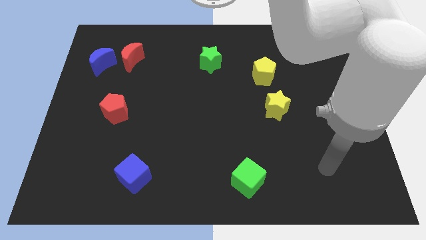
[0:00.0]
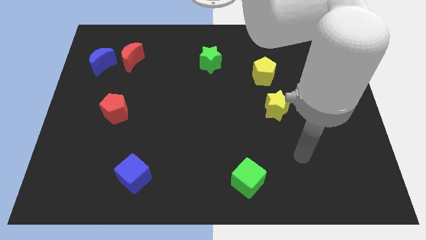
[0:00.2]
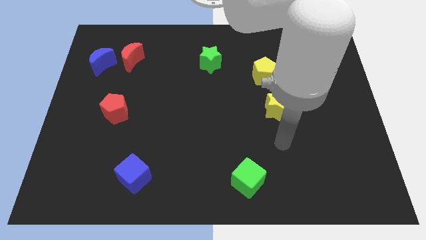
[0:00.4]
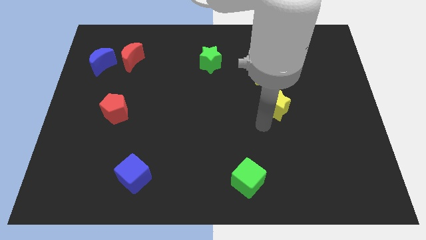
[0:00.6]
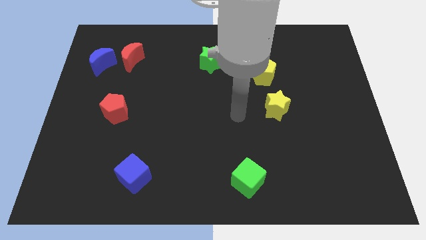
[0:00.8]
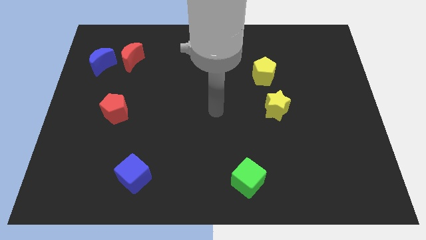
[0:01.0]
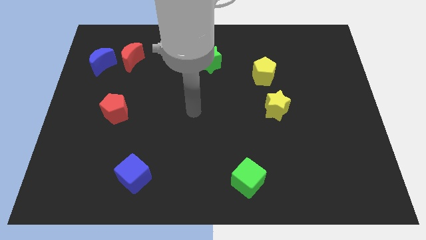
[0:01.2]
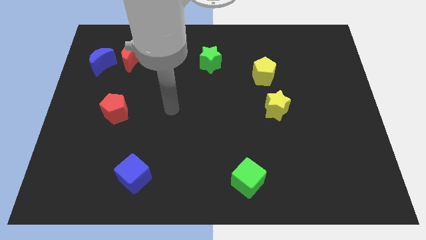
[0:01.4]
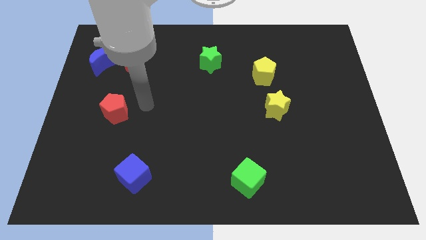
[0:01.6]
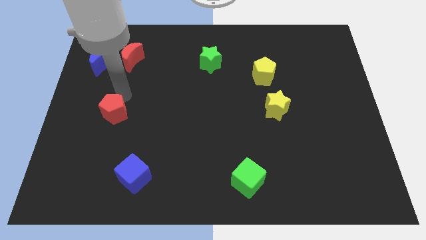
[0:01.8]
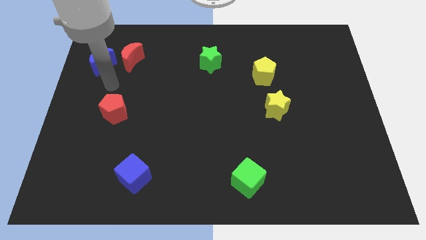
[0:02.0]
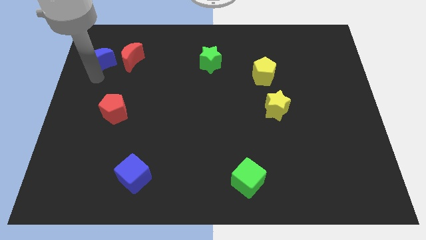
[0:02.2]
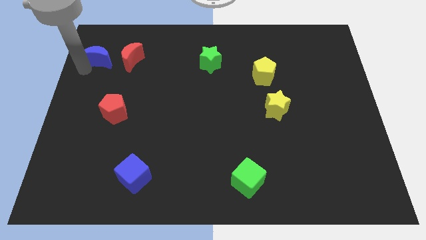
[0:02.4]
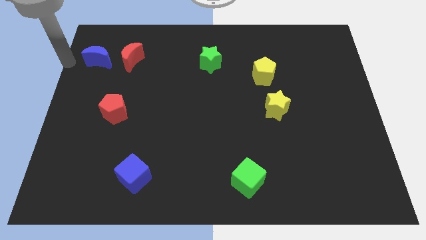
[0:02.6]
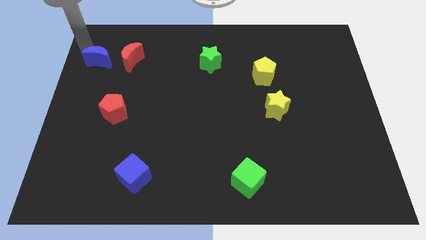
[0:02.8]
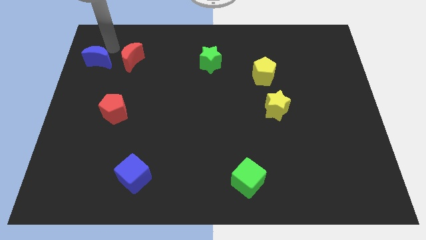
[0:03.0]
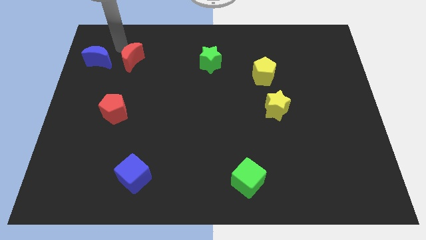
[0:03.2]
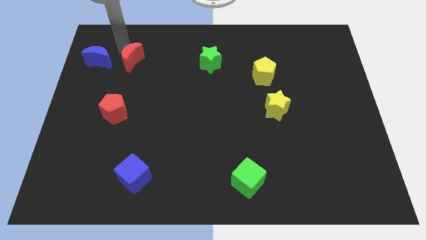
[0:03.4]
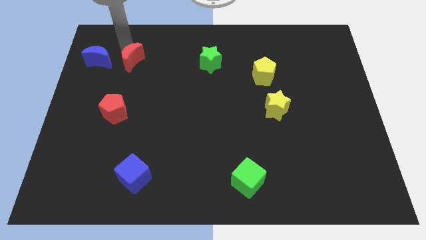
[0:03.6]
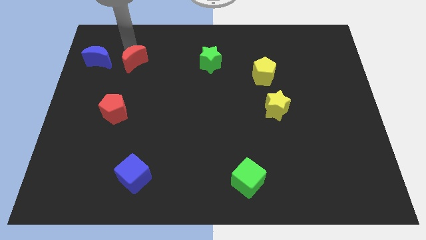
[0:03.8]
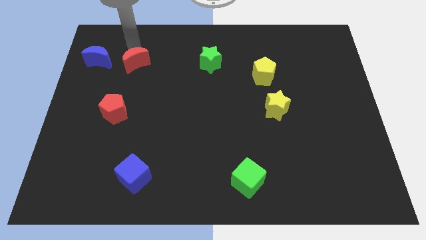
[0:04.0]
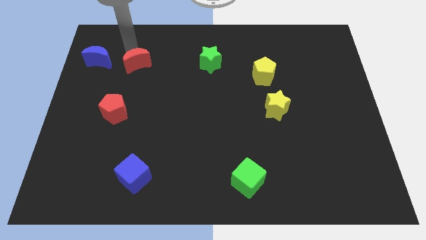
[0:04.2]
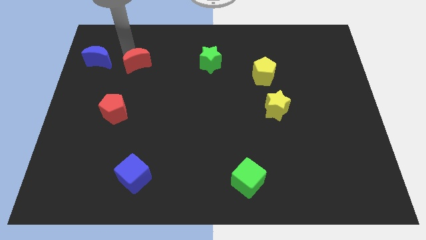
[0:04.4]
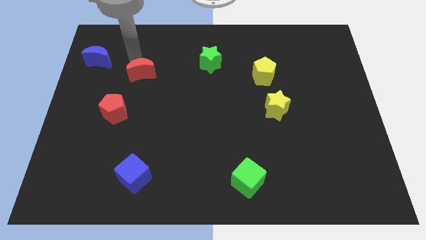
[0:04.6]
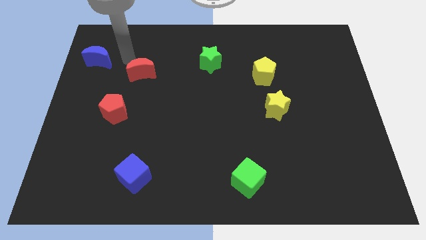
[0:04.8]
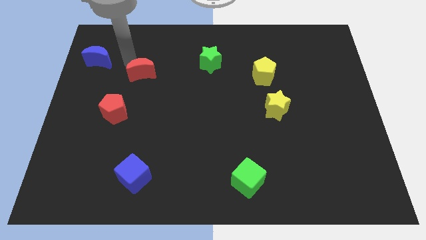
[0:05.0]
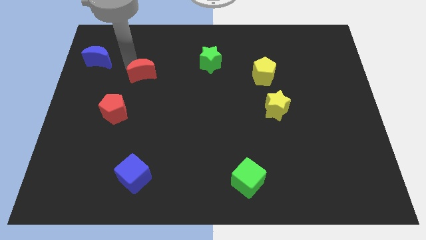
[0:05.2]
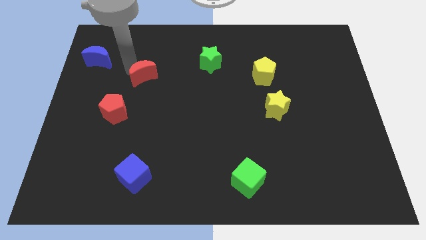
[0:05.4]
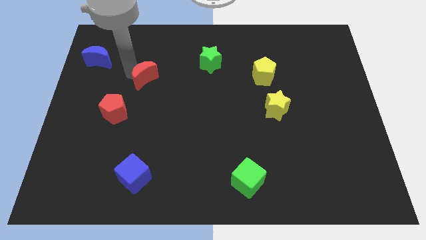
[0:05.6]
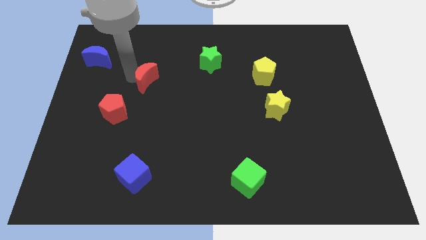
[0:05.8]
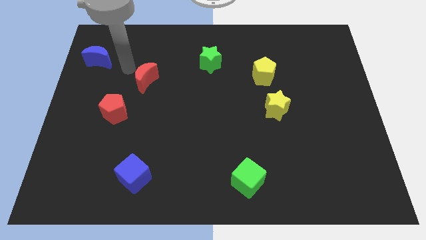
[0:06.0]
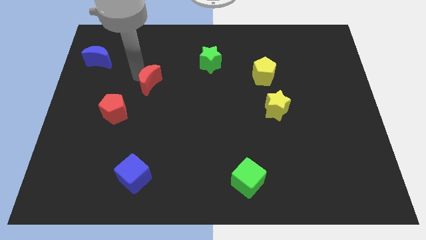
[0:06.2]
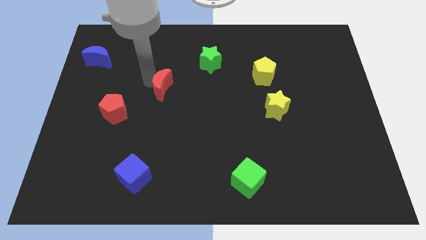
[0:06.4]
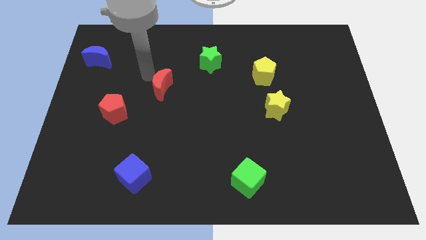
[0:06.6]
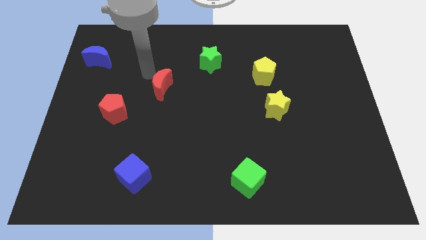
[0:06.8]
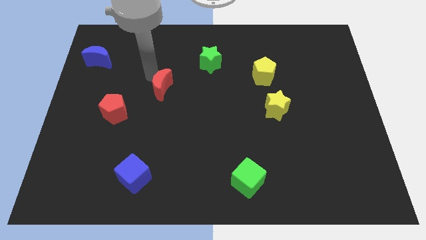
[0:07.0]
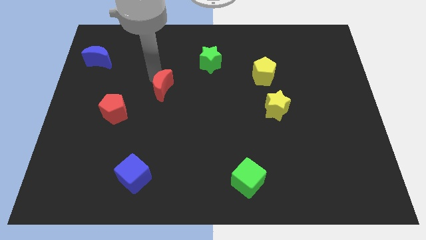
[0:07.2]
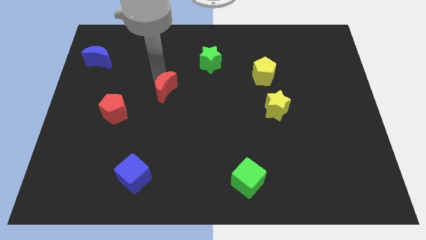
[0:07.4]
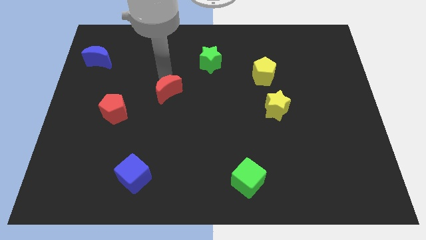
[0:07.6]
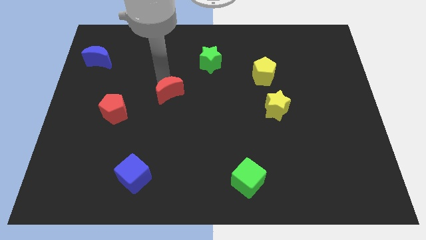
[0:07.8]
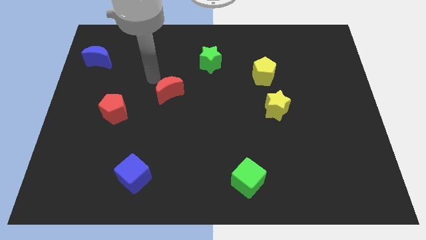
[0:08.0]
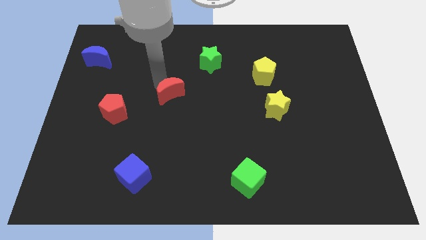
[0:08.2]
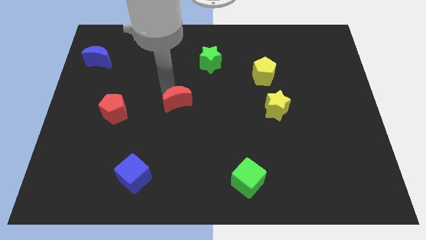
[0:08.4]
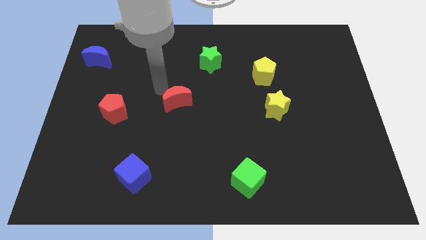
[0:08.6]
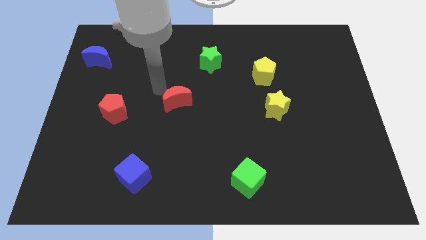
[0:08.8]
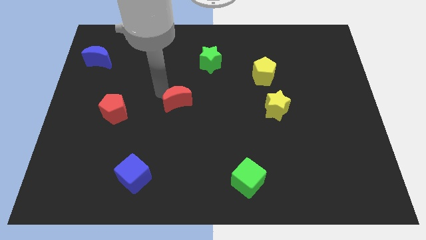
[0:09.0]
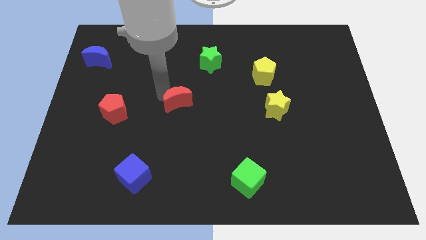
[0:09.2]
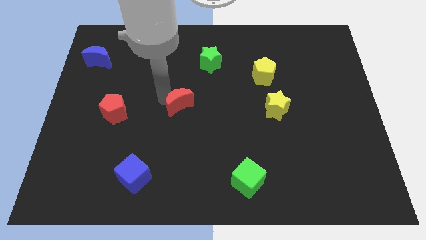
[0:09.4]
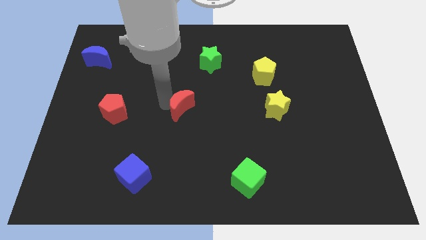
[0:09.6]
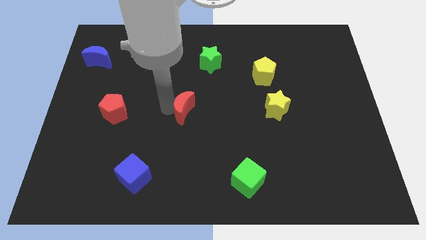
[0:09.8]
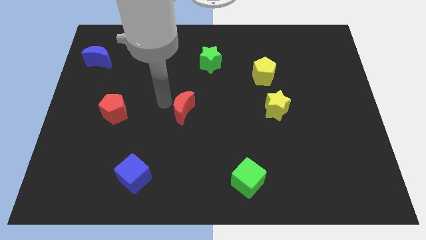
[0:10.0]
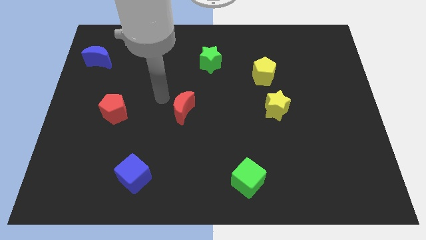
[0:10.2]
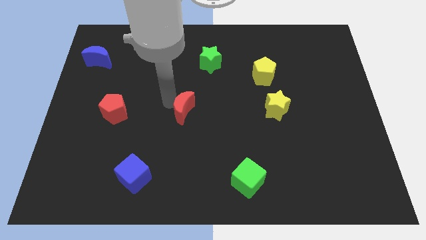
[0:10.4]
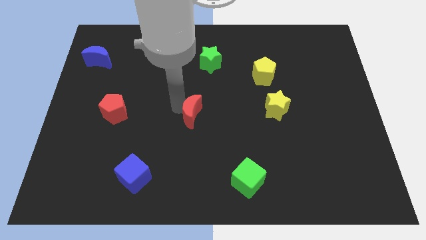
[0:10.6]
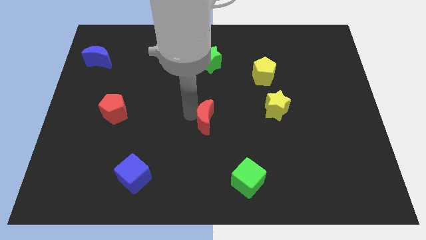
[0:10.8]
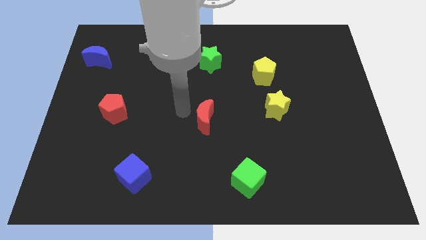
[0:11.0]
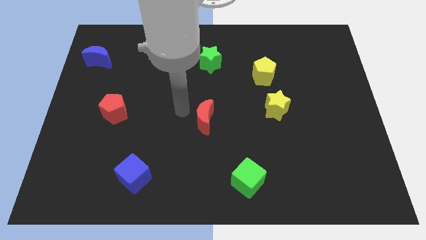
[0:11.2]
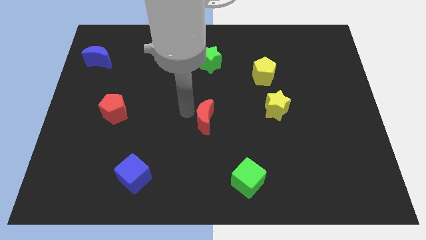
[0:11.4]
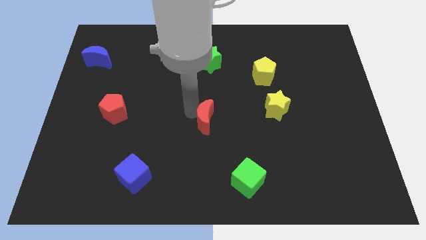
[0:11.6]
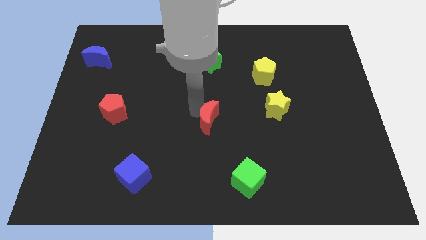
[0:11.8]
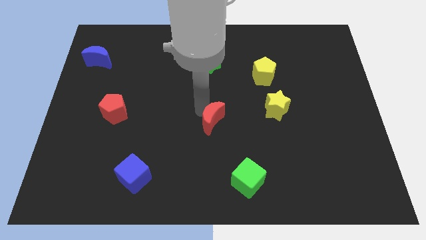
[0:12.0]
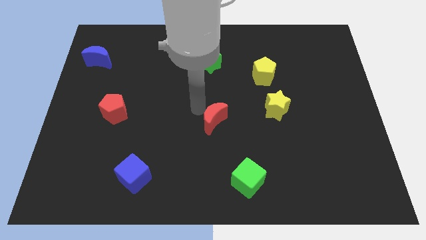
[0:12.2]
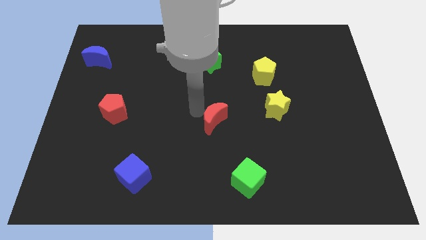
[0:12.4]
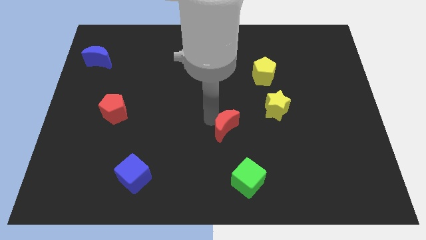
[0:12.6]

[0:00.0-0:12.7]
push the red moon above the green cube

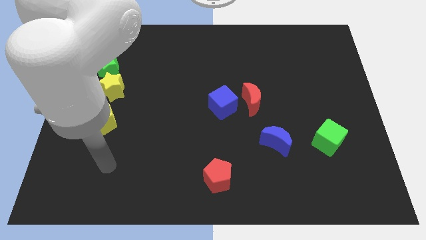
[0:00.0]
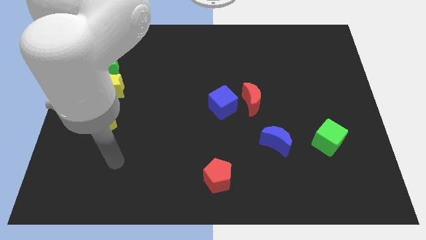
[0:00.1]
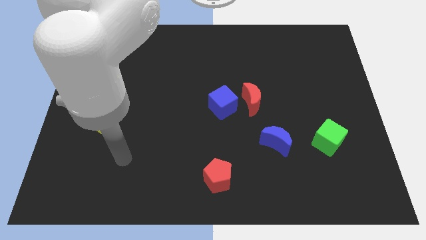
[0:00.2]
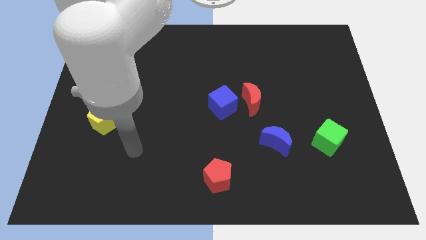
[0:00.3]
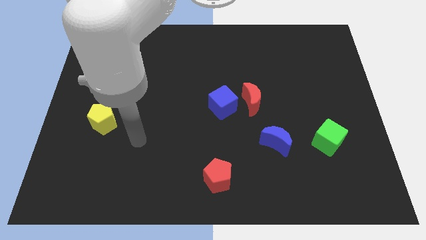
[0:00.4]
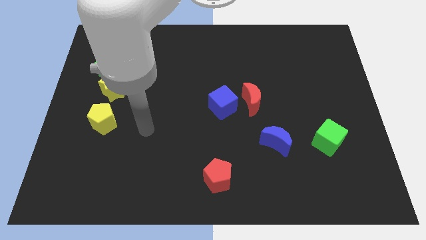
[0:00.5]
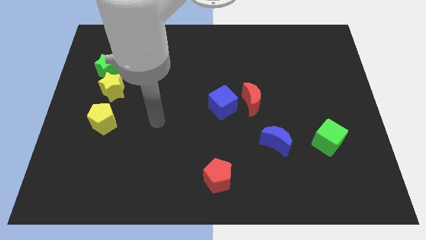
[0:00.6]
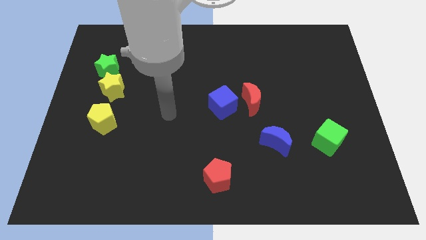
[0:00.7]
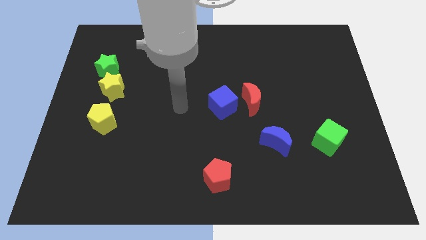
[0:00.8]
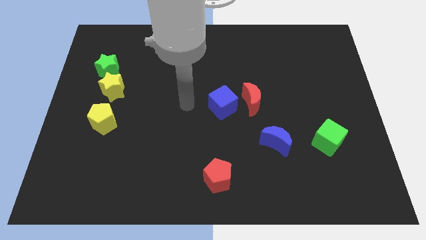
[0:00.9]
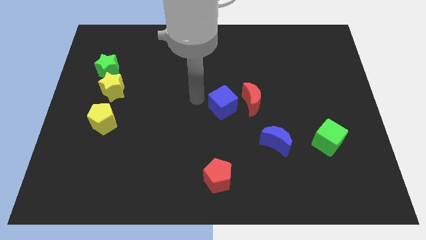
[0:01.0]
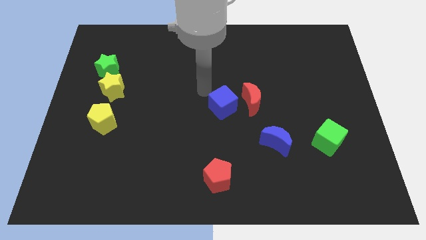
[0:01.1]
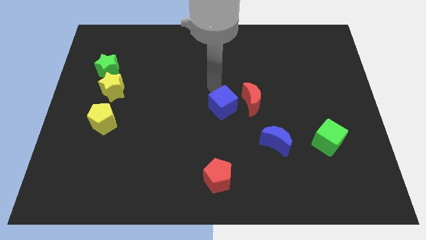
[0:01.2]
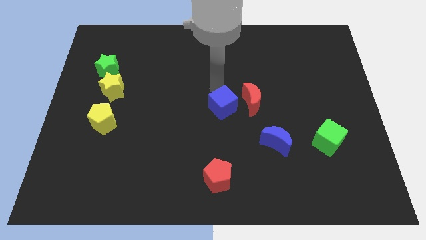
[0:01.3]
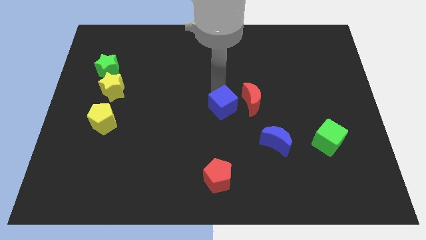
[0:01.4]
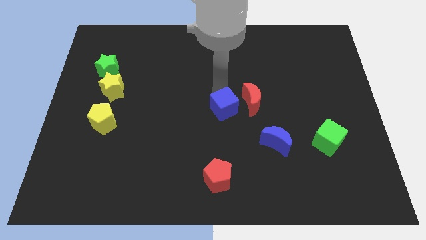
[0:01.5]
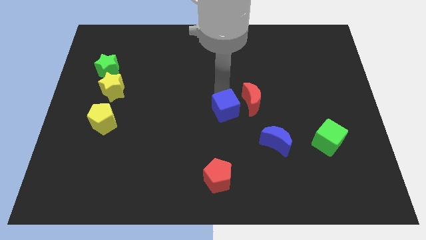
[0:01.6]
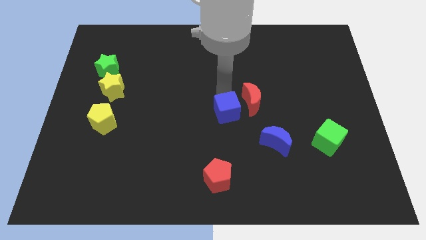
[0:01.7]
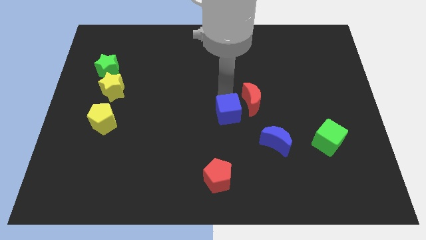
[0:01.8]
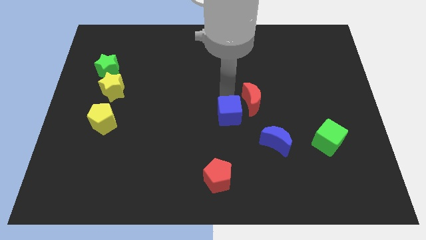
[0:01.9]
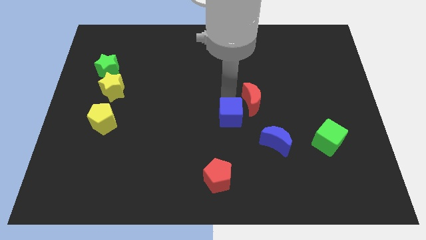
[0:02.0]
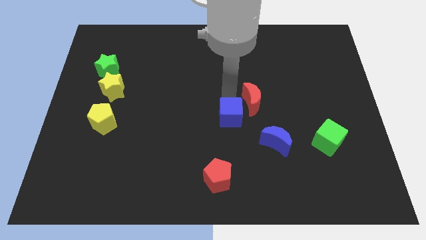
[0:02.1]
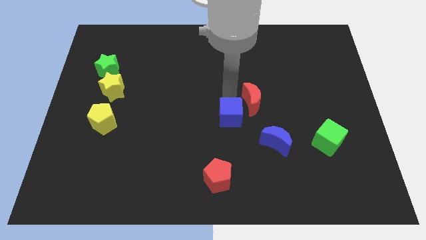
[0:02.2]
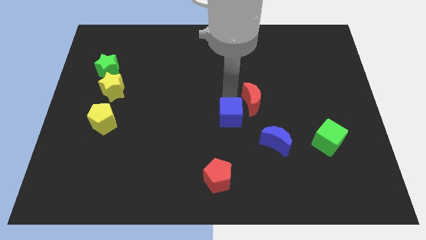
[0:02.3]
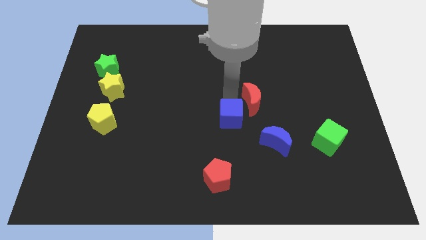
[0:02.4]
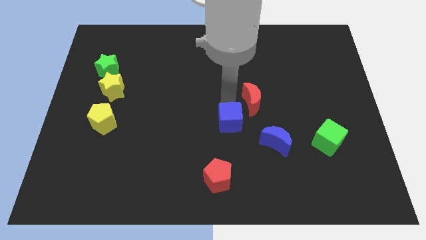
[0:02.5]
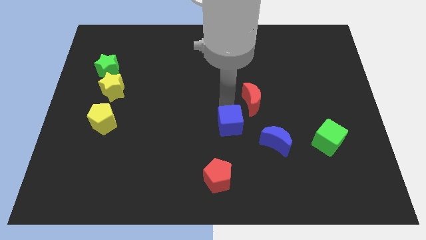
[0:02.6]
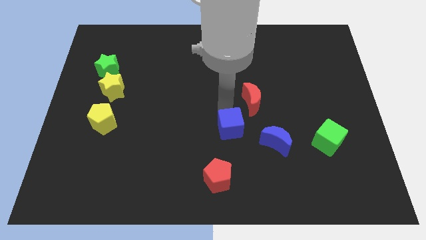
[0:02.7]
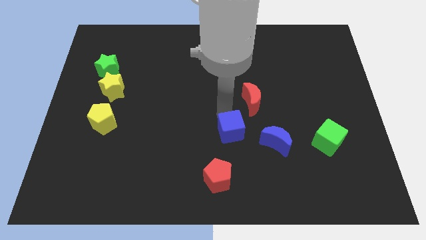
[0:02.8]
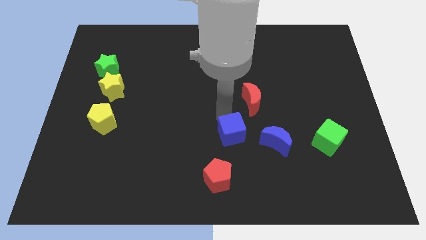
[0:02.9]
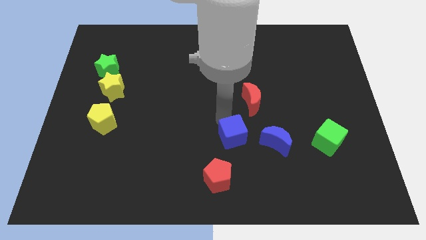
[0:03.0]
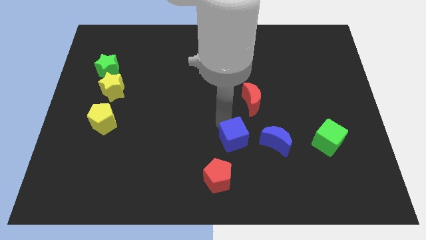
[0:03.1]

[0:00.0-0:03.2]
slide the blue cube to the top right side of the red pentagon
